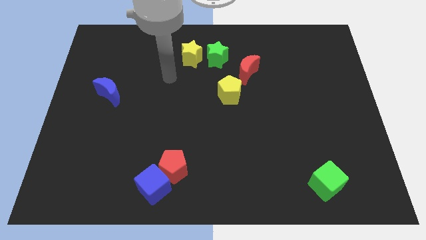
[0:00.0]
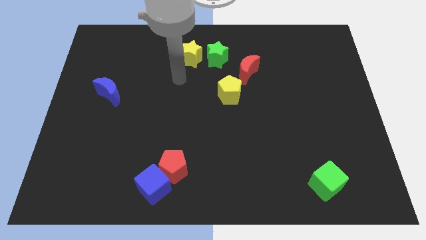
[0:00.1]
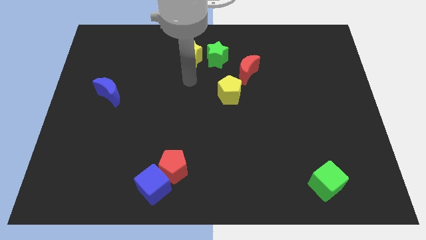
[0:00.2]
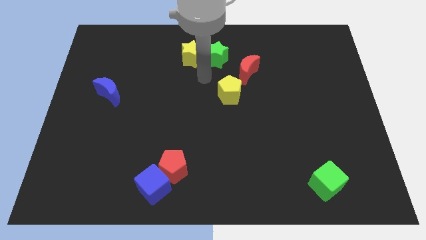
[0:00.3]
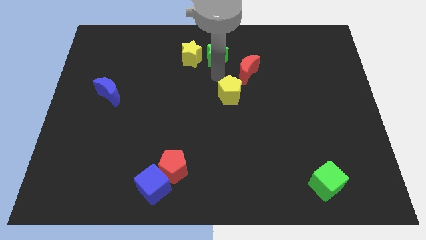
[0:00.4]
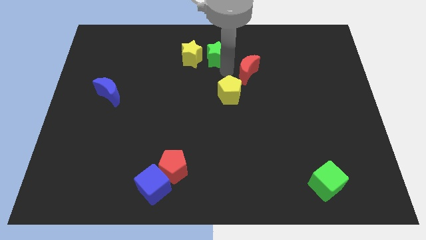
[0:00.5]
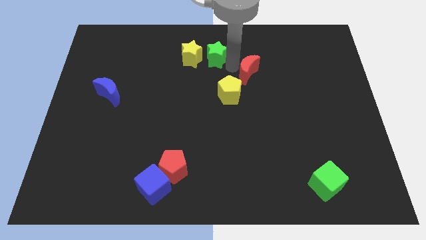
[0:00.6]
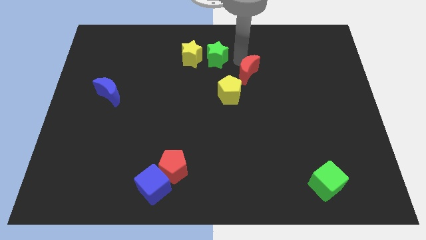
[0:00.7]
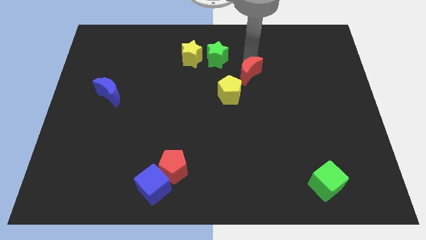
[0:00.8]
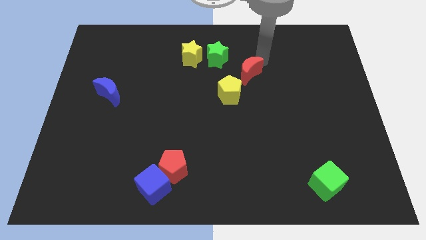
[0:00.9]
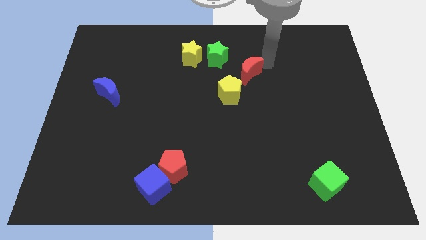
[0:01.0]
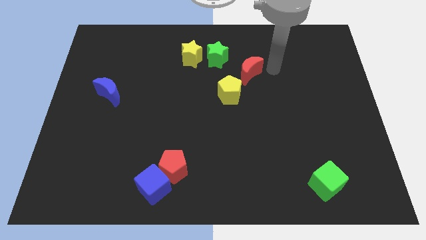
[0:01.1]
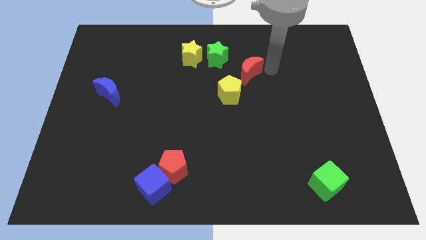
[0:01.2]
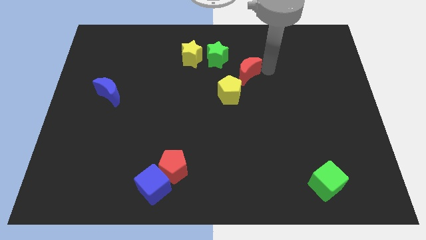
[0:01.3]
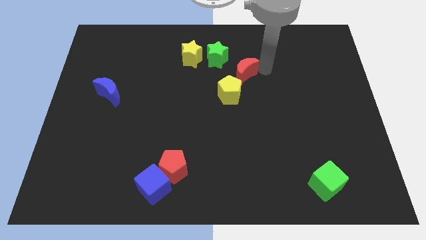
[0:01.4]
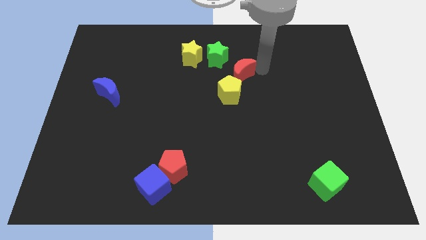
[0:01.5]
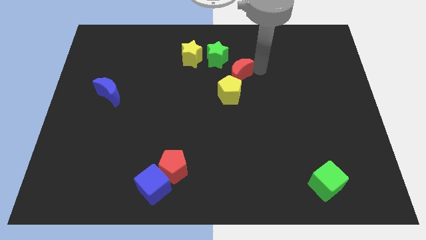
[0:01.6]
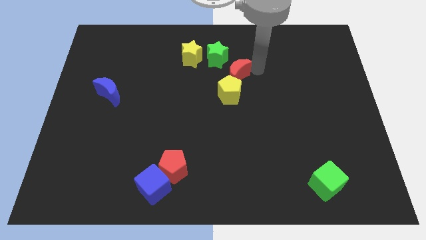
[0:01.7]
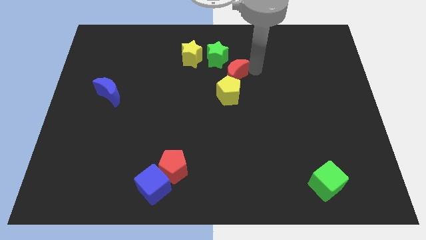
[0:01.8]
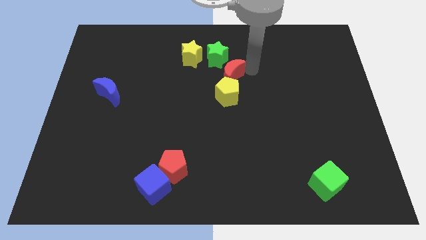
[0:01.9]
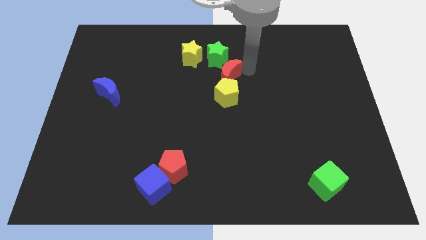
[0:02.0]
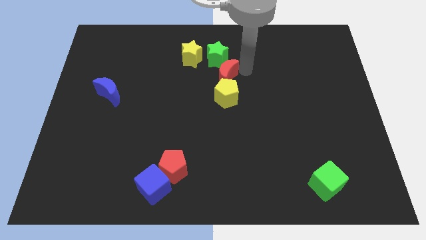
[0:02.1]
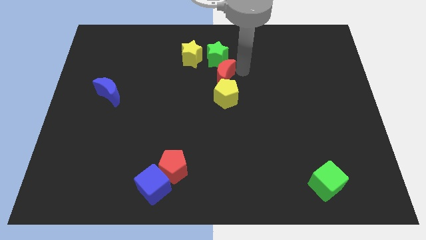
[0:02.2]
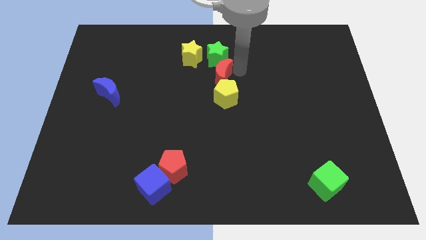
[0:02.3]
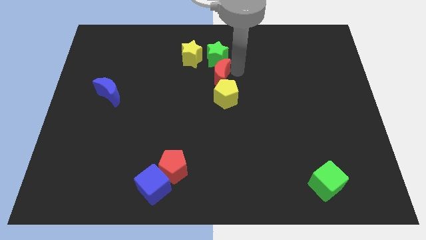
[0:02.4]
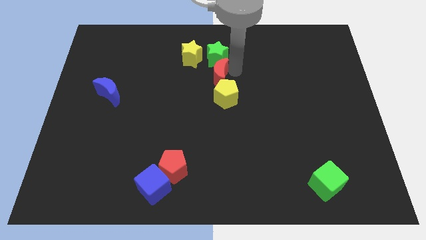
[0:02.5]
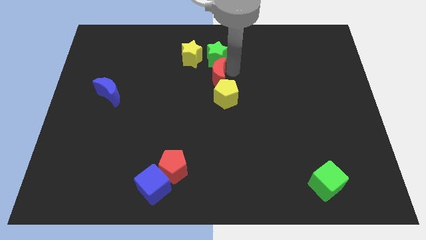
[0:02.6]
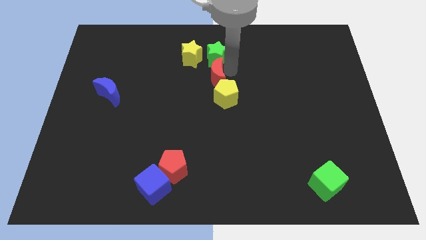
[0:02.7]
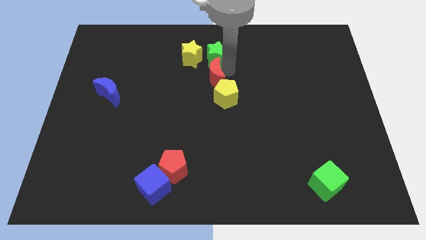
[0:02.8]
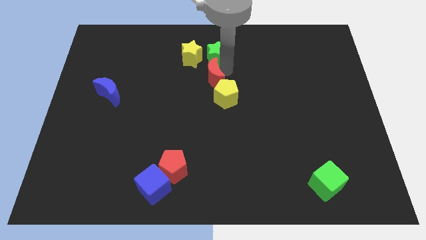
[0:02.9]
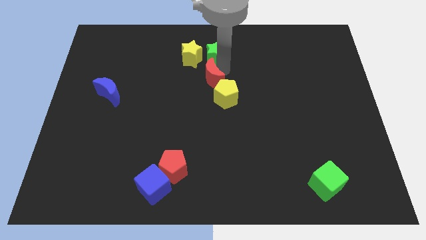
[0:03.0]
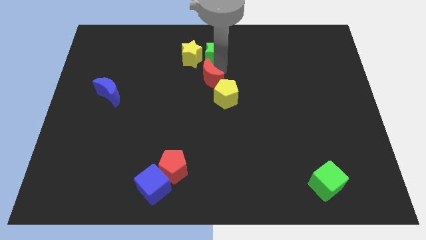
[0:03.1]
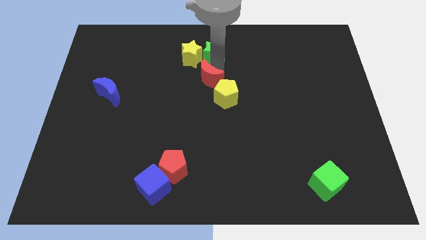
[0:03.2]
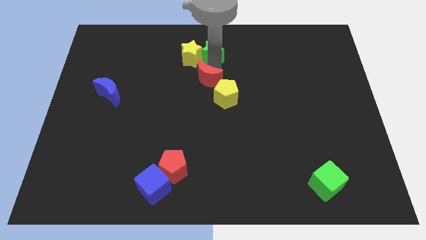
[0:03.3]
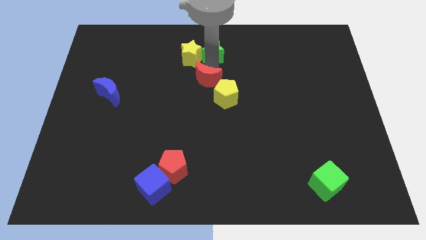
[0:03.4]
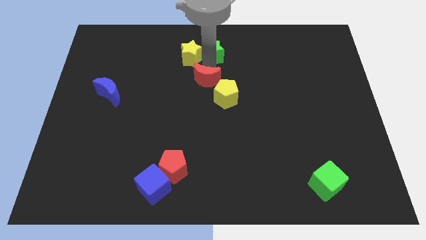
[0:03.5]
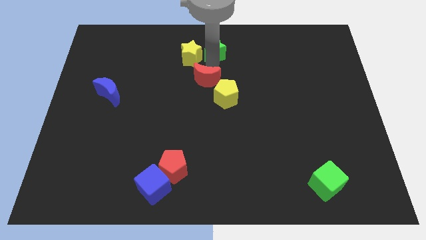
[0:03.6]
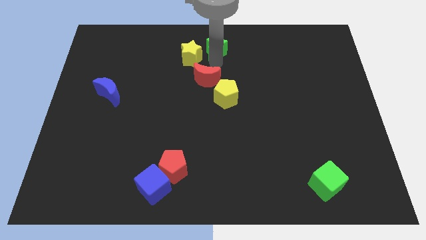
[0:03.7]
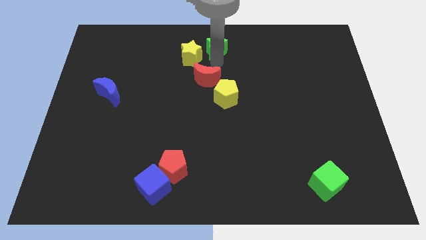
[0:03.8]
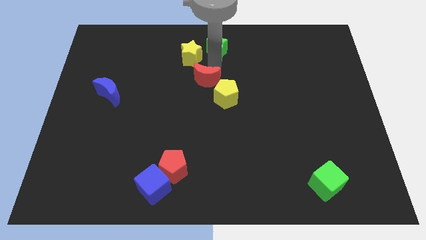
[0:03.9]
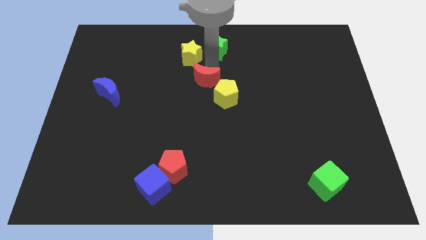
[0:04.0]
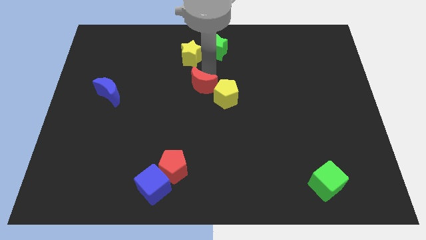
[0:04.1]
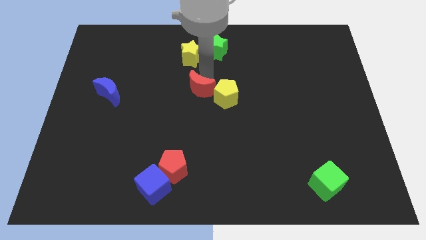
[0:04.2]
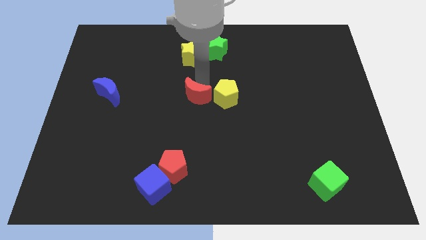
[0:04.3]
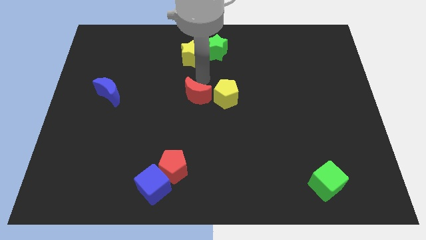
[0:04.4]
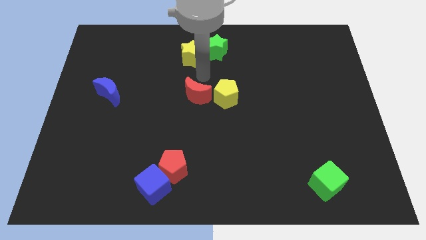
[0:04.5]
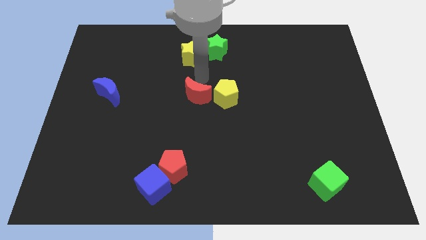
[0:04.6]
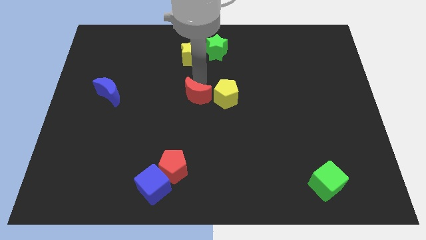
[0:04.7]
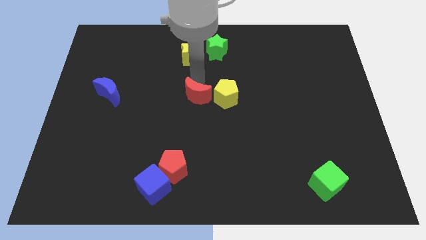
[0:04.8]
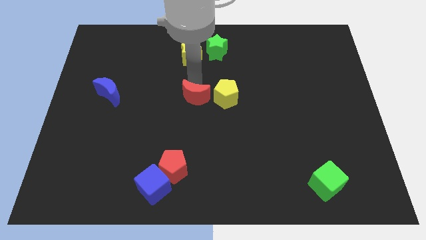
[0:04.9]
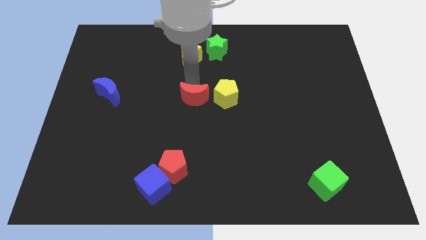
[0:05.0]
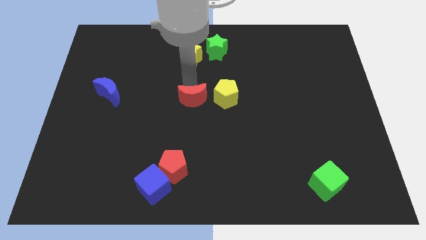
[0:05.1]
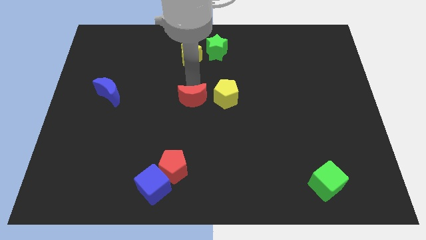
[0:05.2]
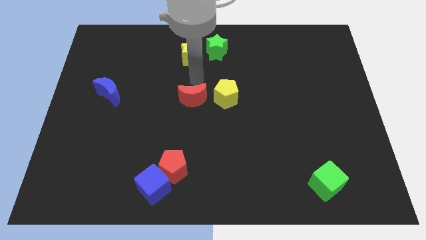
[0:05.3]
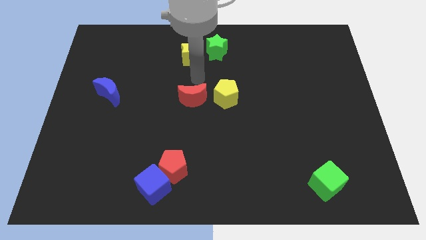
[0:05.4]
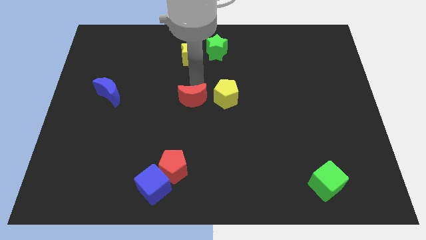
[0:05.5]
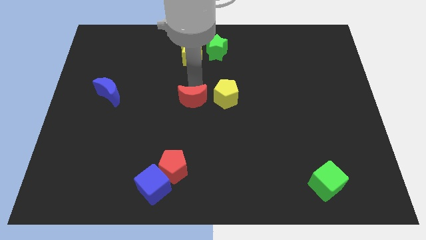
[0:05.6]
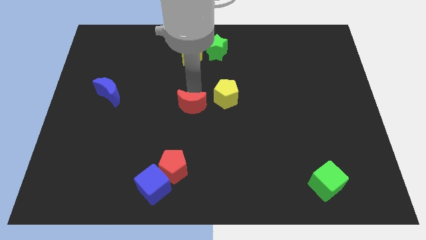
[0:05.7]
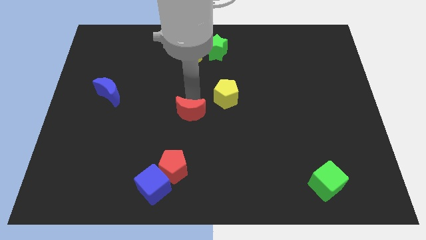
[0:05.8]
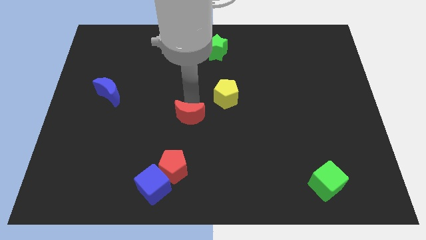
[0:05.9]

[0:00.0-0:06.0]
slide the red moon down and left

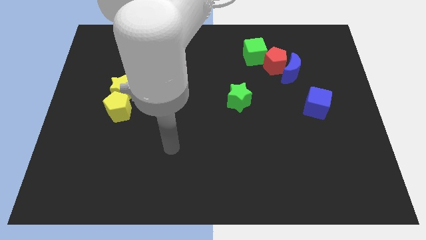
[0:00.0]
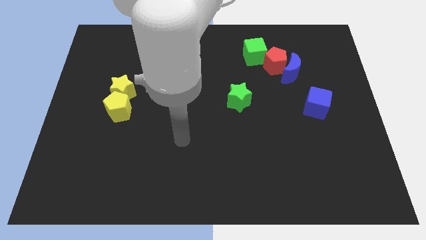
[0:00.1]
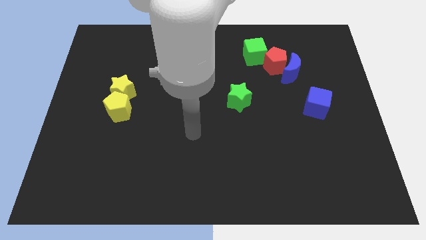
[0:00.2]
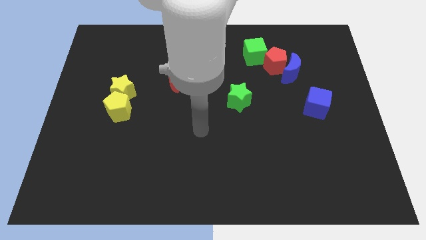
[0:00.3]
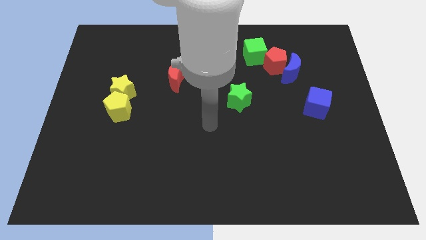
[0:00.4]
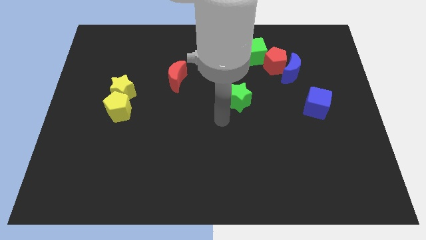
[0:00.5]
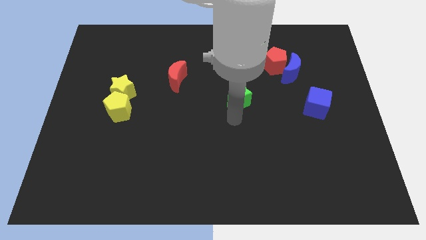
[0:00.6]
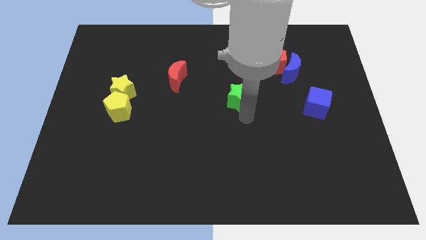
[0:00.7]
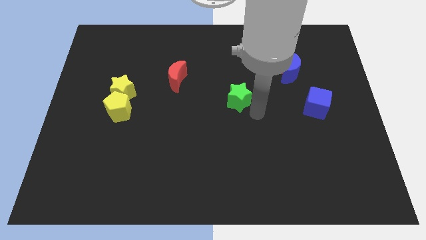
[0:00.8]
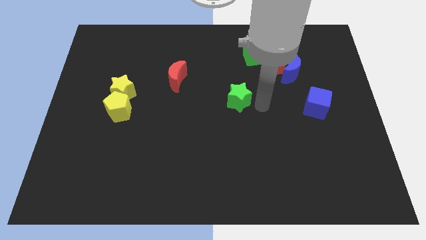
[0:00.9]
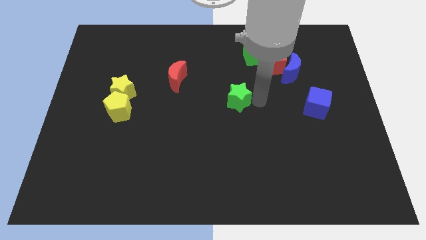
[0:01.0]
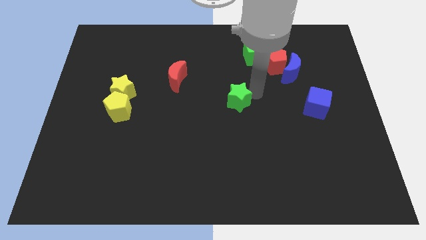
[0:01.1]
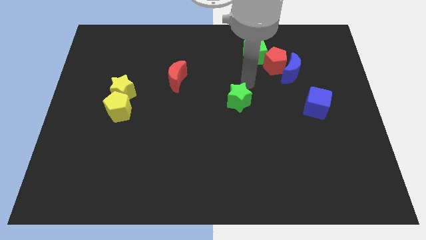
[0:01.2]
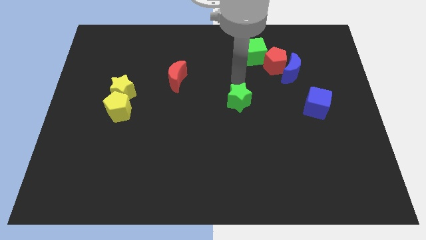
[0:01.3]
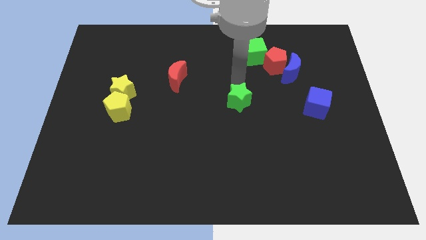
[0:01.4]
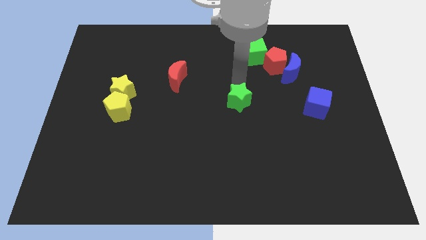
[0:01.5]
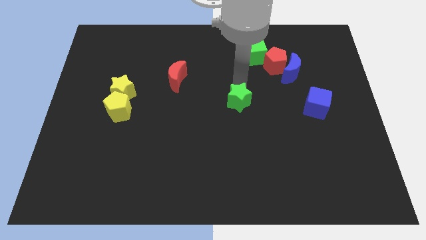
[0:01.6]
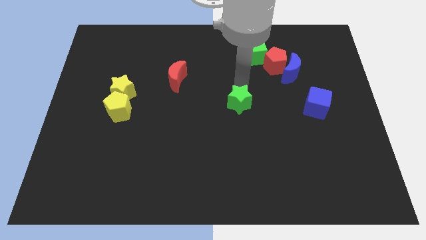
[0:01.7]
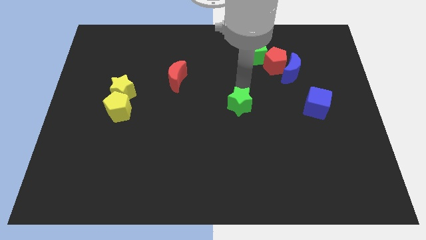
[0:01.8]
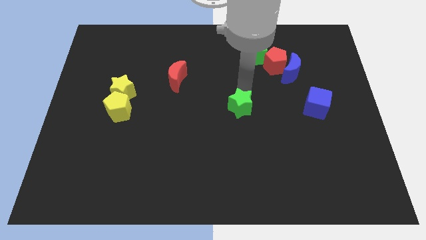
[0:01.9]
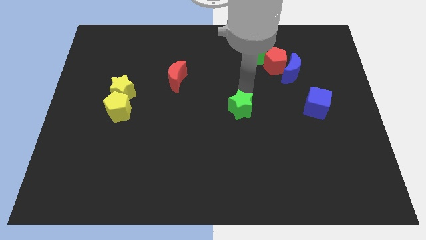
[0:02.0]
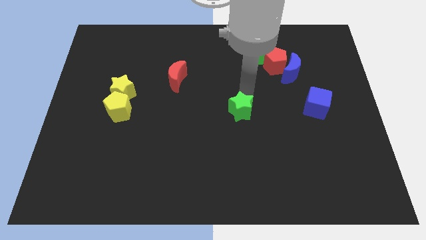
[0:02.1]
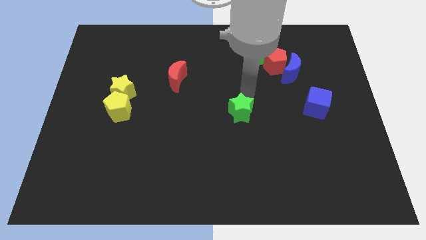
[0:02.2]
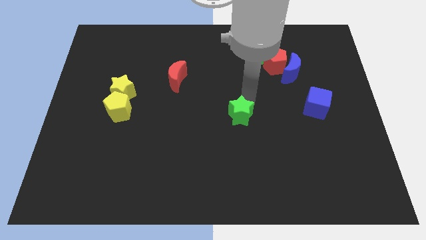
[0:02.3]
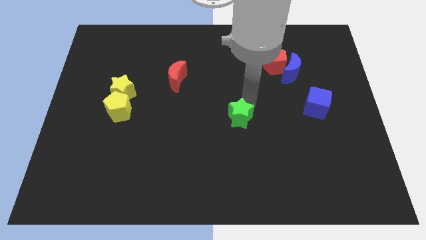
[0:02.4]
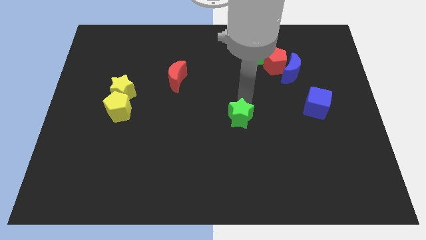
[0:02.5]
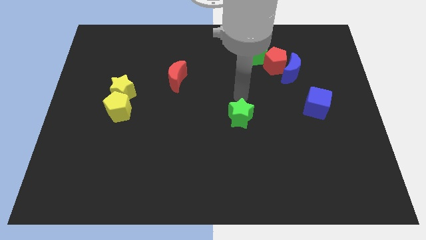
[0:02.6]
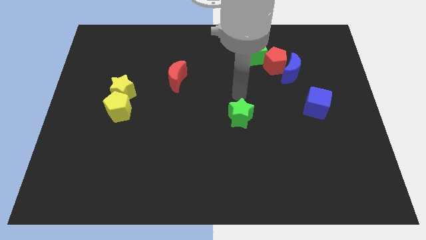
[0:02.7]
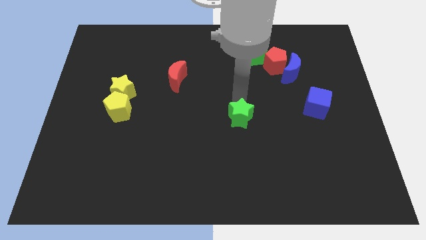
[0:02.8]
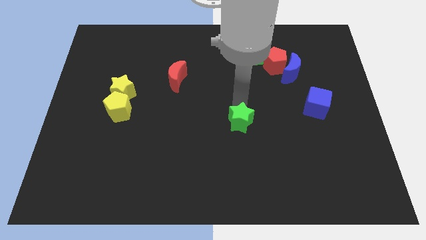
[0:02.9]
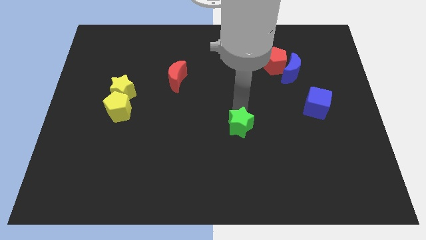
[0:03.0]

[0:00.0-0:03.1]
slide the green star downwards slightly
